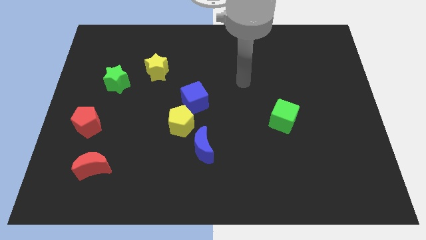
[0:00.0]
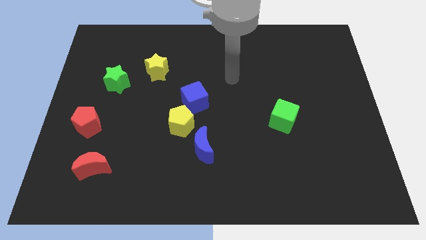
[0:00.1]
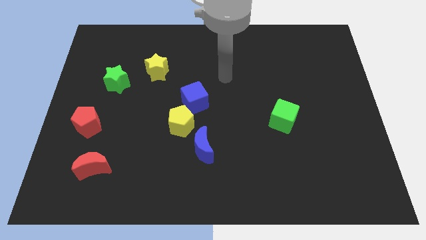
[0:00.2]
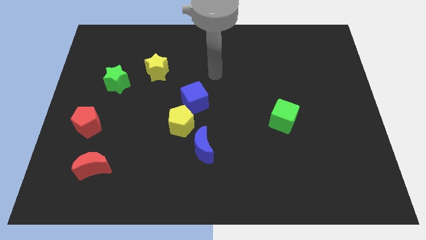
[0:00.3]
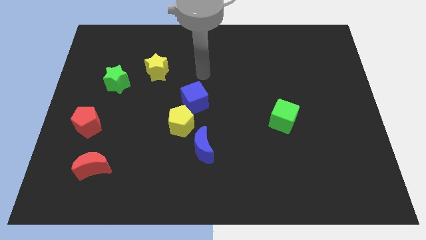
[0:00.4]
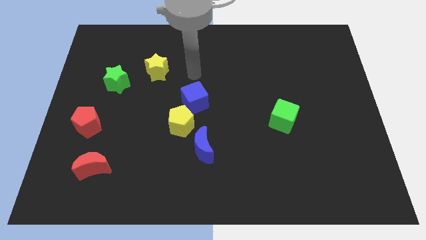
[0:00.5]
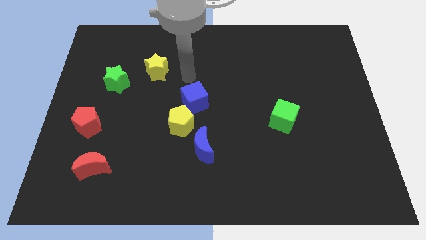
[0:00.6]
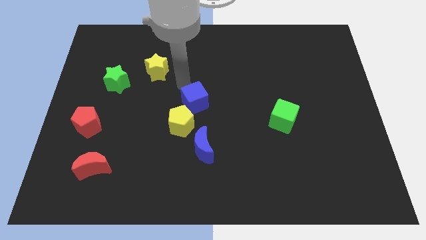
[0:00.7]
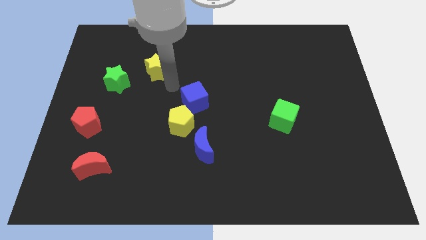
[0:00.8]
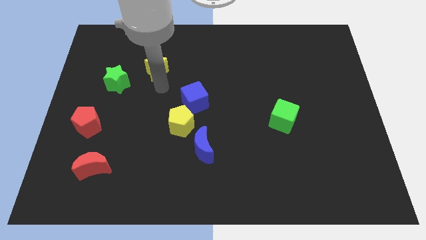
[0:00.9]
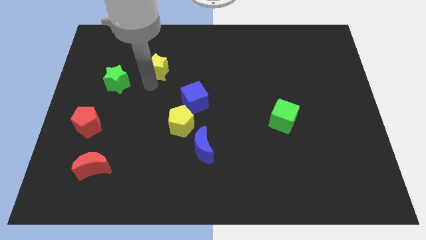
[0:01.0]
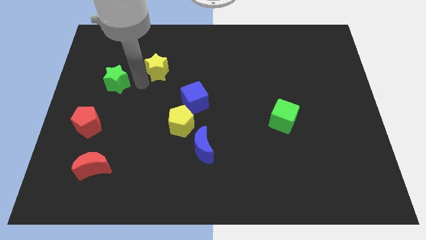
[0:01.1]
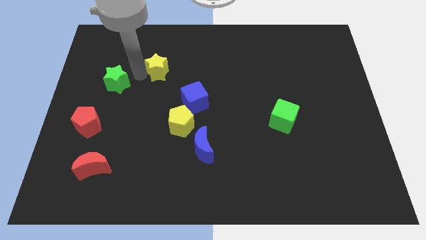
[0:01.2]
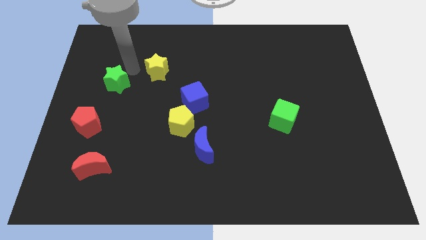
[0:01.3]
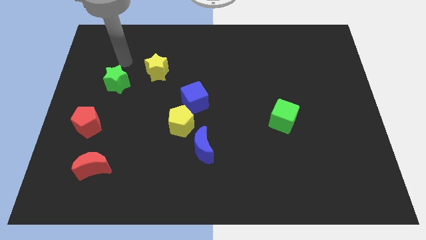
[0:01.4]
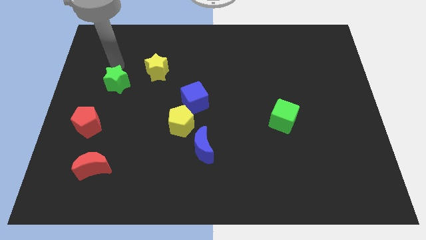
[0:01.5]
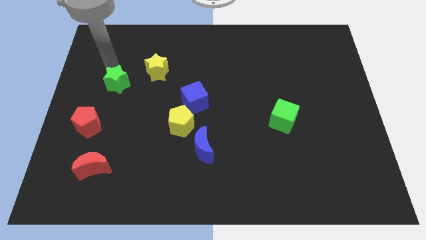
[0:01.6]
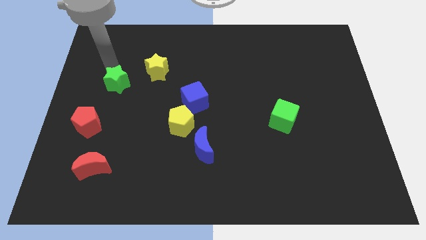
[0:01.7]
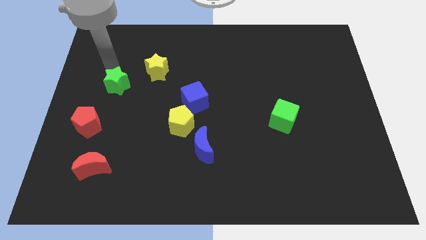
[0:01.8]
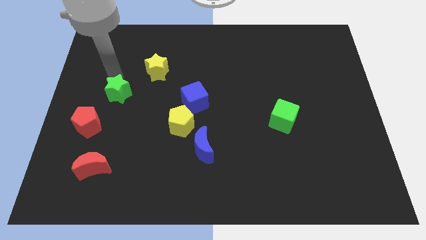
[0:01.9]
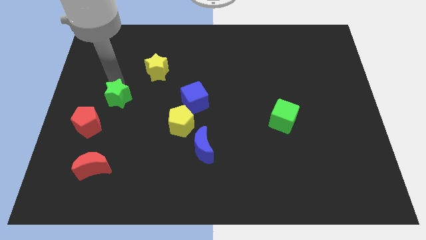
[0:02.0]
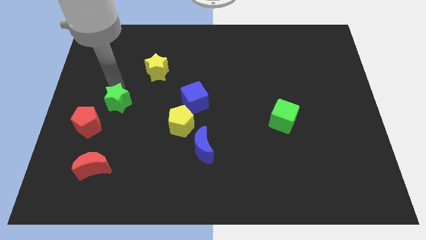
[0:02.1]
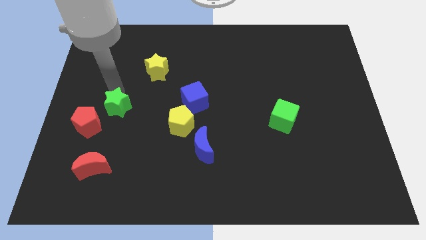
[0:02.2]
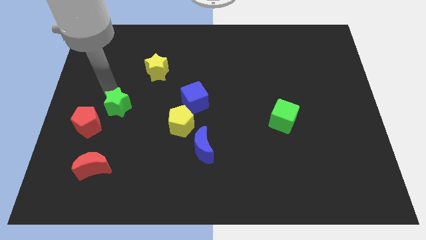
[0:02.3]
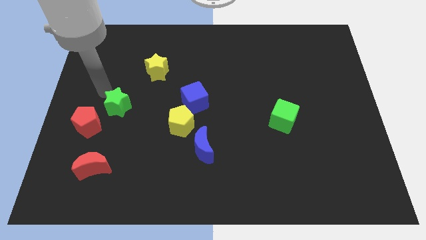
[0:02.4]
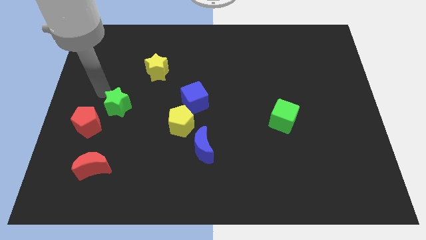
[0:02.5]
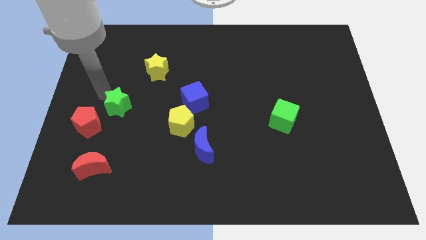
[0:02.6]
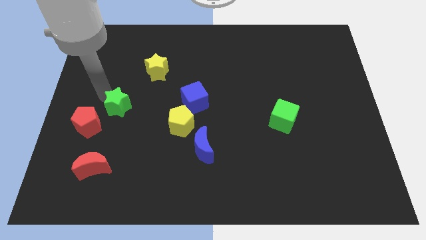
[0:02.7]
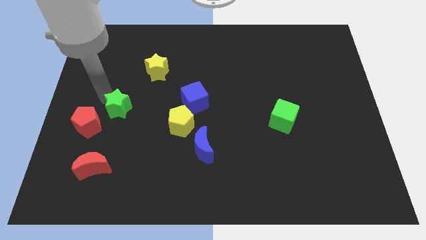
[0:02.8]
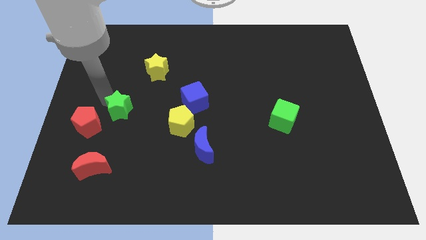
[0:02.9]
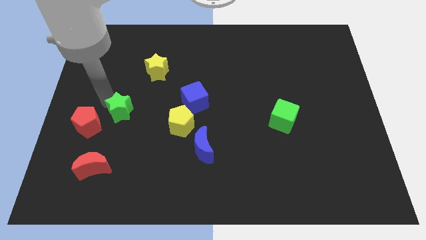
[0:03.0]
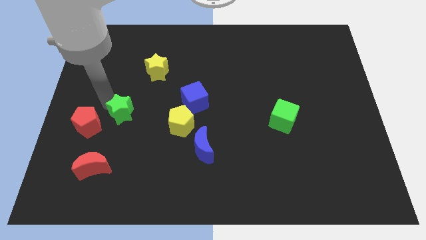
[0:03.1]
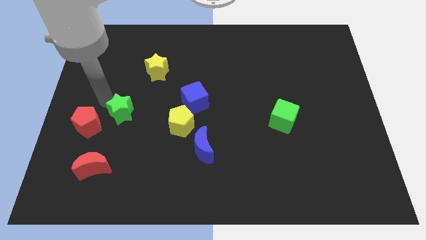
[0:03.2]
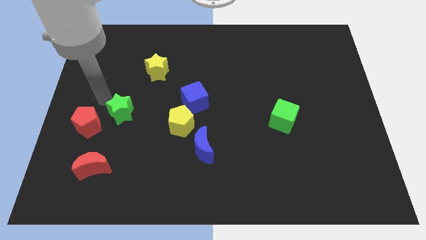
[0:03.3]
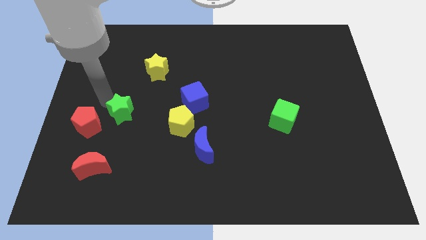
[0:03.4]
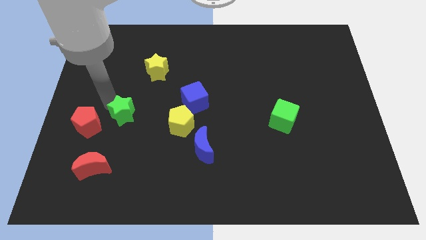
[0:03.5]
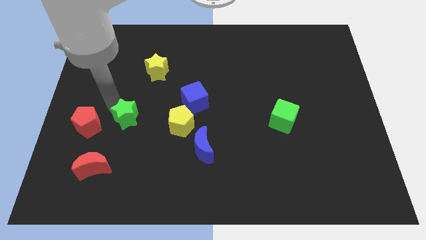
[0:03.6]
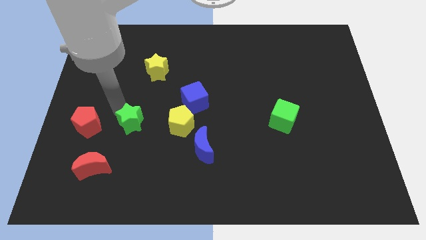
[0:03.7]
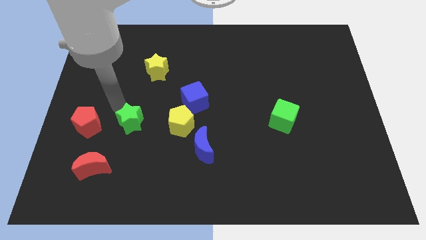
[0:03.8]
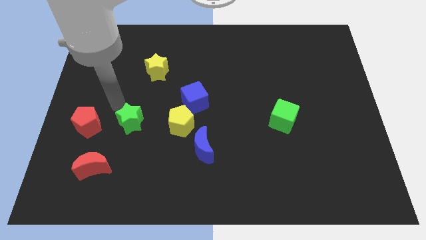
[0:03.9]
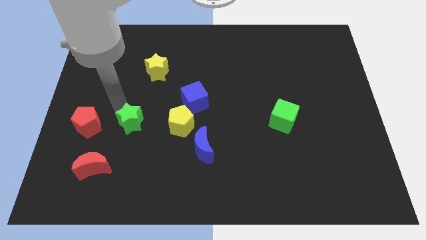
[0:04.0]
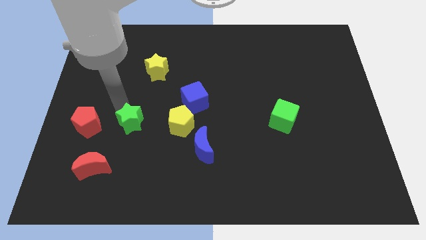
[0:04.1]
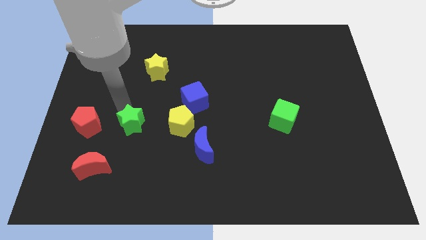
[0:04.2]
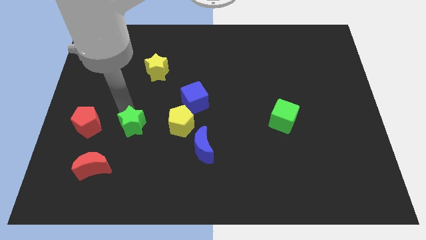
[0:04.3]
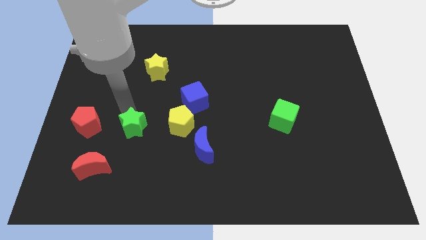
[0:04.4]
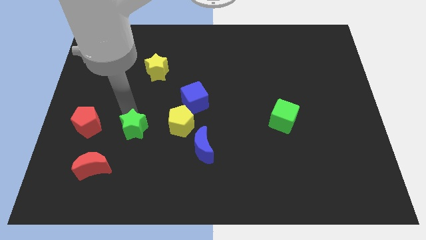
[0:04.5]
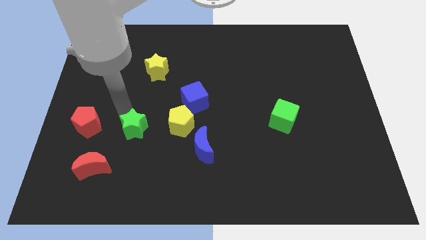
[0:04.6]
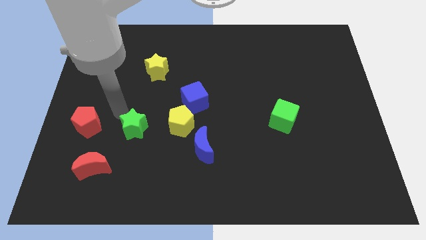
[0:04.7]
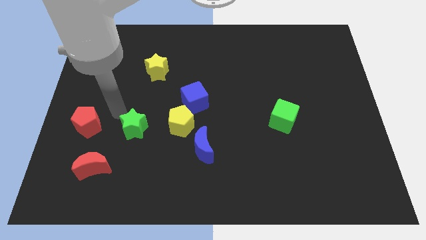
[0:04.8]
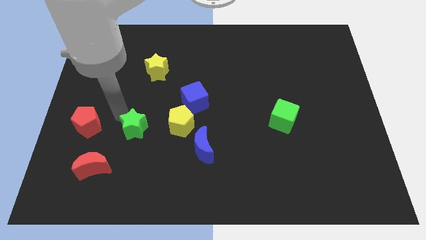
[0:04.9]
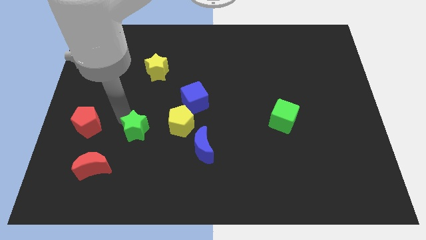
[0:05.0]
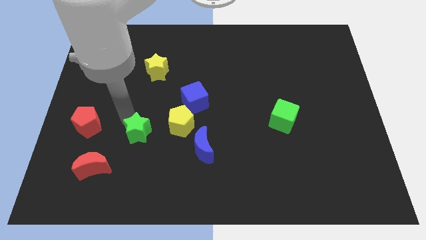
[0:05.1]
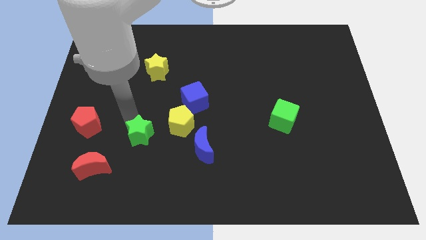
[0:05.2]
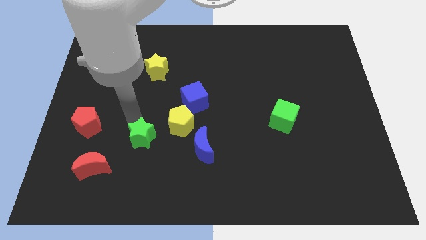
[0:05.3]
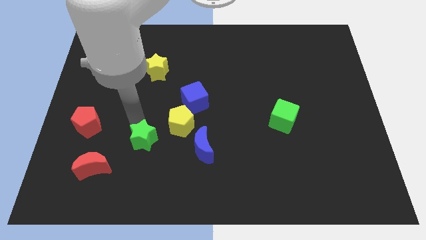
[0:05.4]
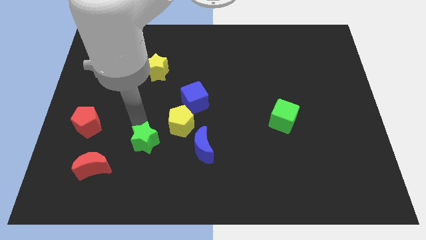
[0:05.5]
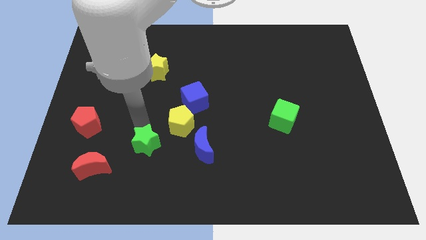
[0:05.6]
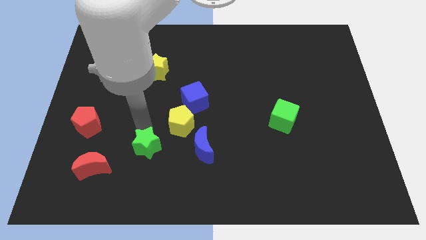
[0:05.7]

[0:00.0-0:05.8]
put the green star to the right of the red moon

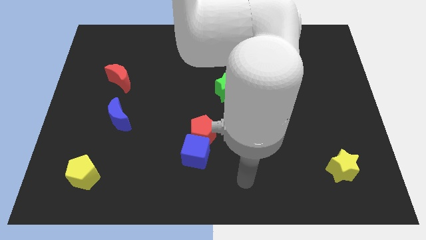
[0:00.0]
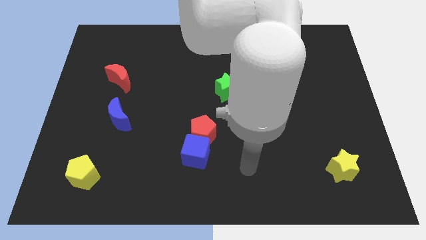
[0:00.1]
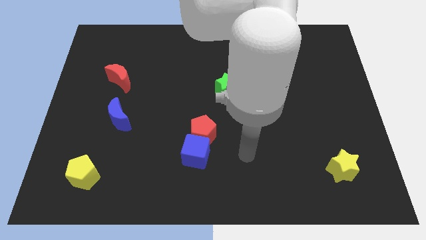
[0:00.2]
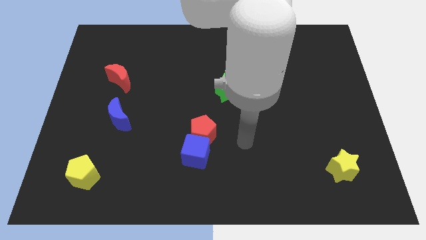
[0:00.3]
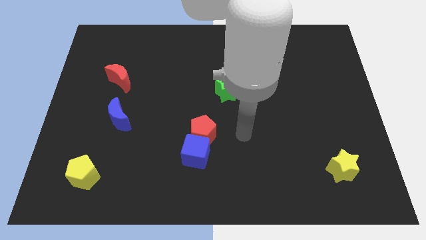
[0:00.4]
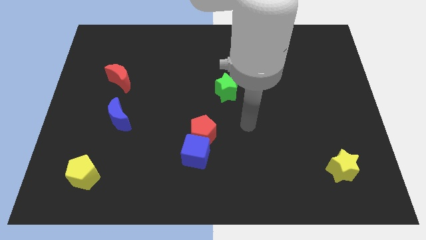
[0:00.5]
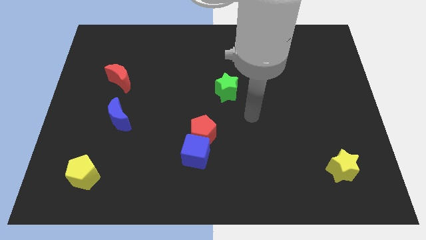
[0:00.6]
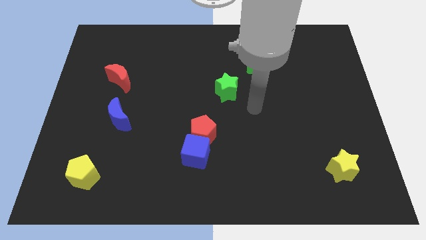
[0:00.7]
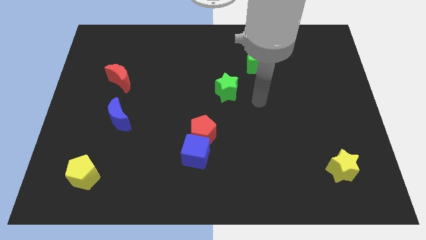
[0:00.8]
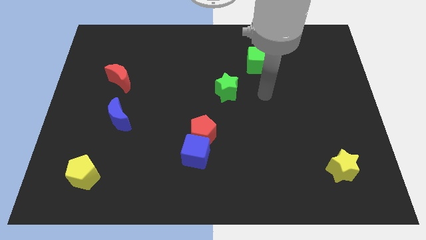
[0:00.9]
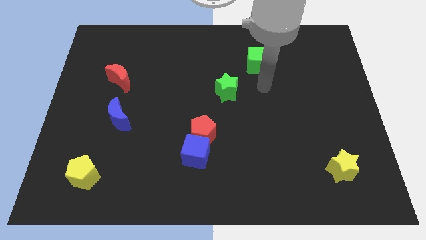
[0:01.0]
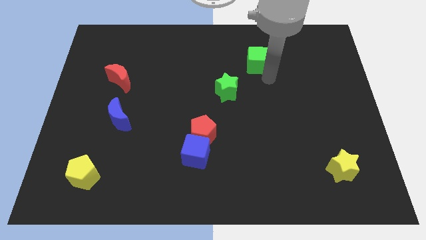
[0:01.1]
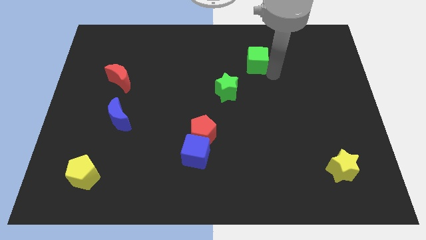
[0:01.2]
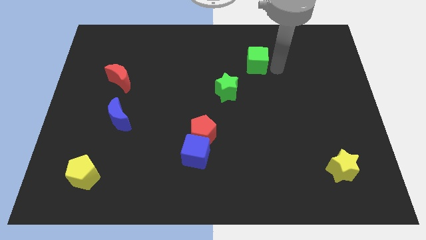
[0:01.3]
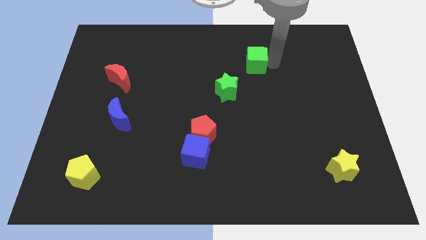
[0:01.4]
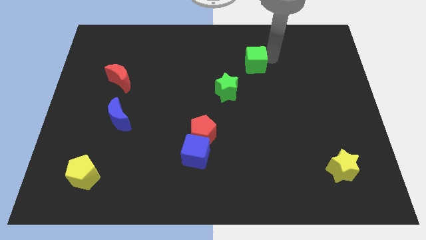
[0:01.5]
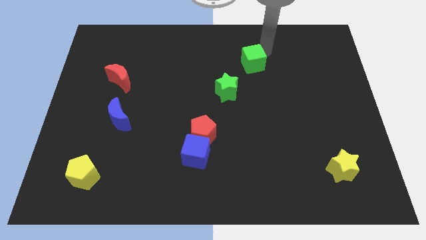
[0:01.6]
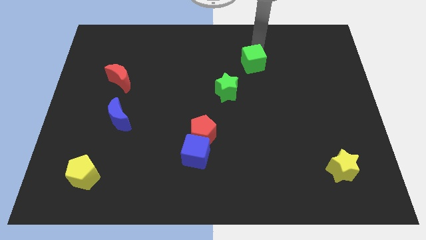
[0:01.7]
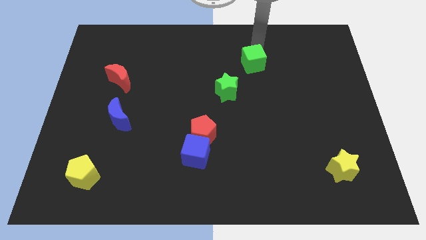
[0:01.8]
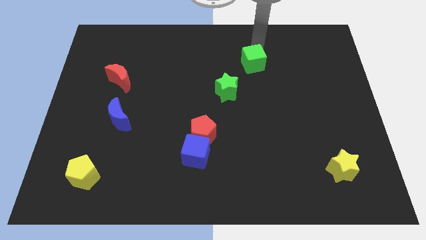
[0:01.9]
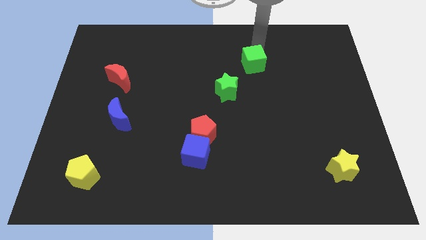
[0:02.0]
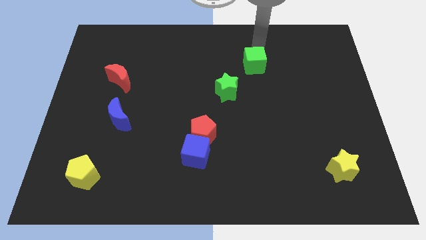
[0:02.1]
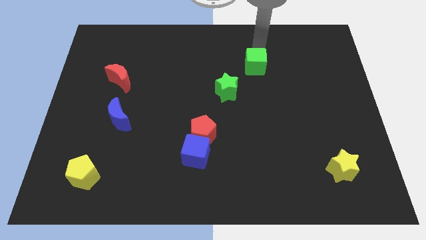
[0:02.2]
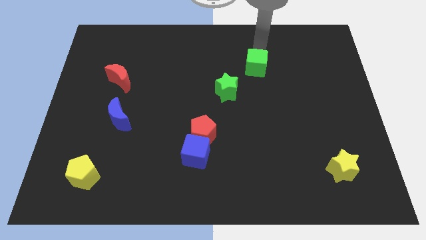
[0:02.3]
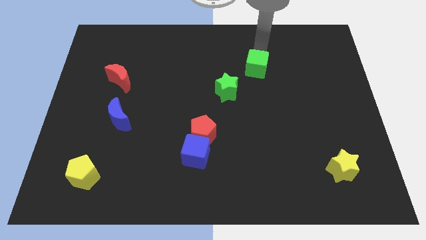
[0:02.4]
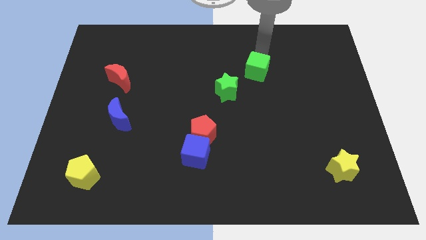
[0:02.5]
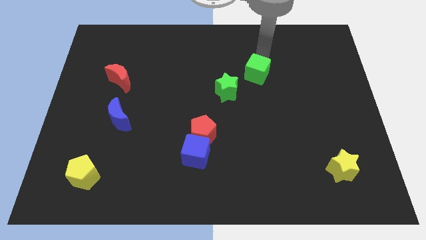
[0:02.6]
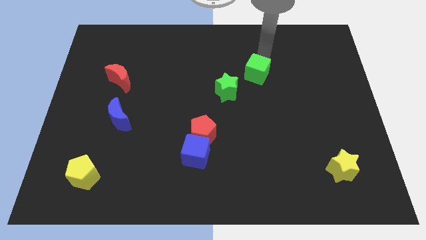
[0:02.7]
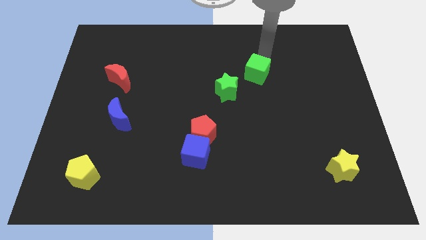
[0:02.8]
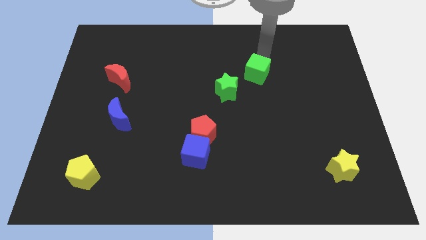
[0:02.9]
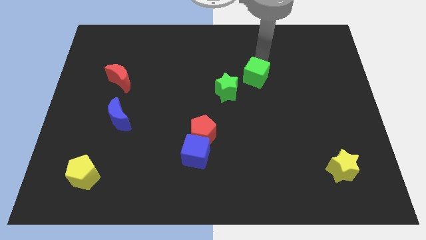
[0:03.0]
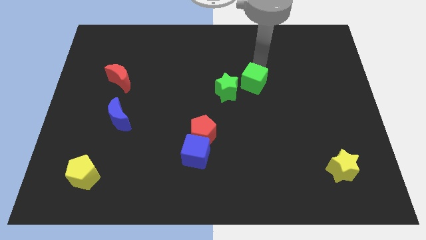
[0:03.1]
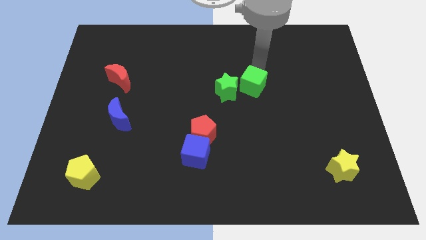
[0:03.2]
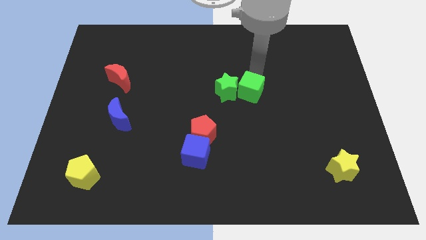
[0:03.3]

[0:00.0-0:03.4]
slide the green cube to the bottom right side of the green star
